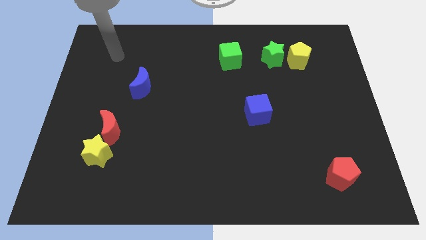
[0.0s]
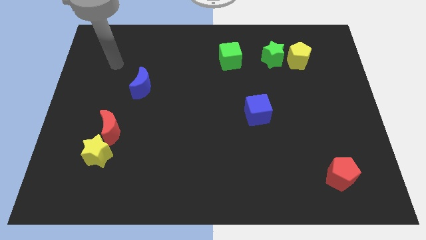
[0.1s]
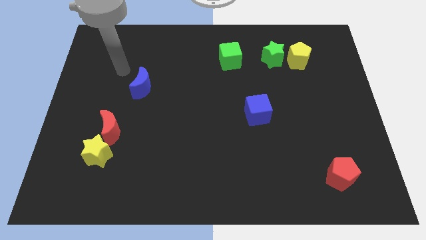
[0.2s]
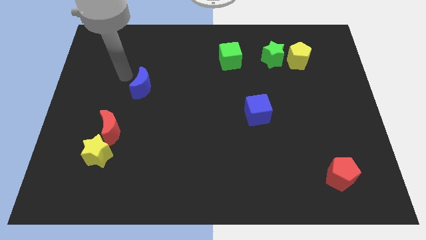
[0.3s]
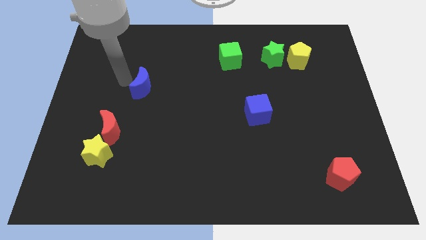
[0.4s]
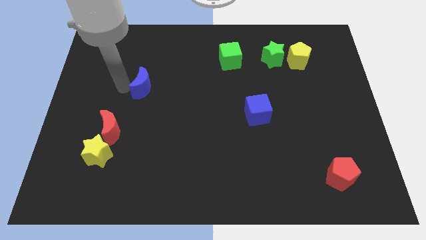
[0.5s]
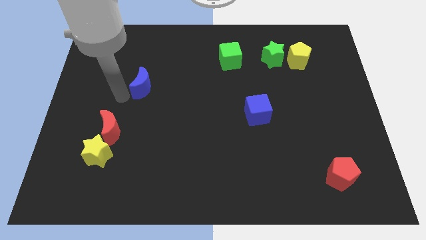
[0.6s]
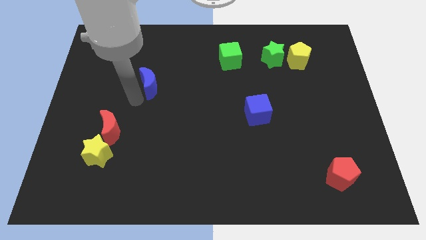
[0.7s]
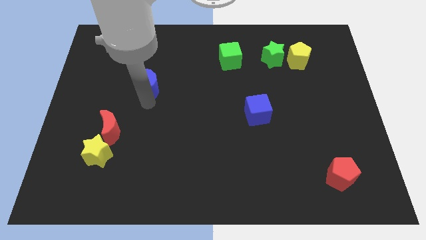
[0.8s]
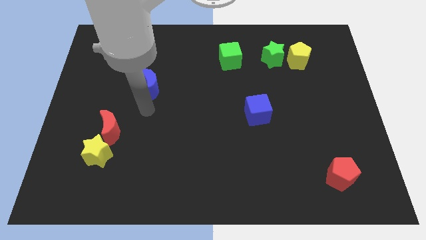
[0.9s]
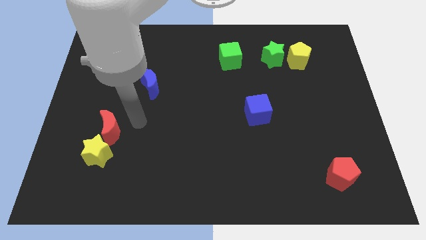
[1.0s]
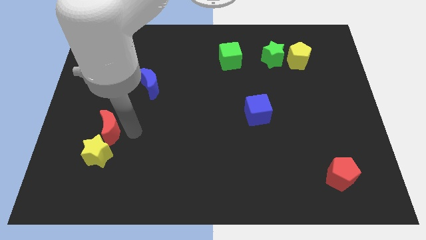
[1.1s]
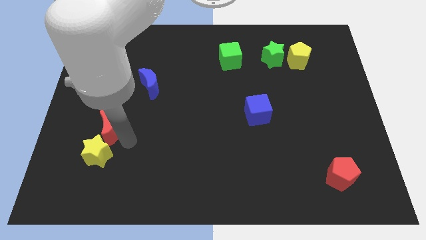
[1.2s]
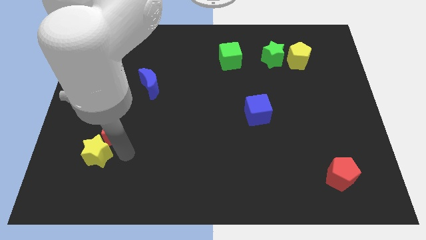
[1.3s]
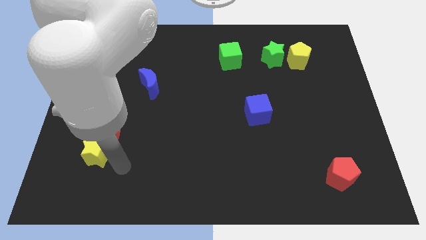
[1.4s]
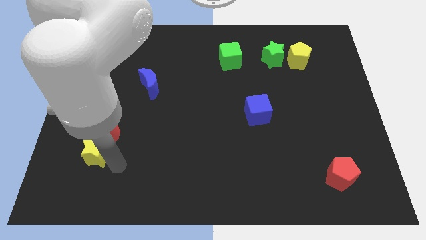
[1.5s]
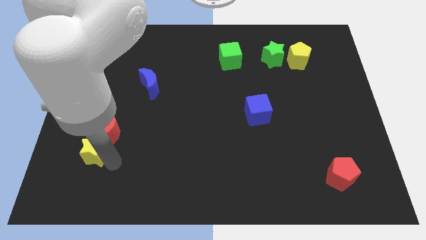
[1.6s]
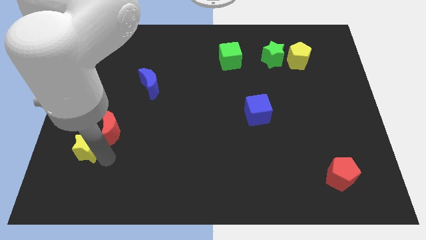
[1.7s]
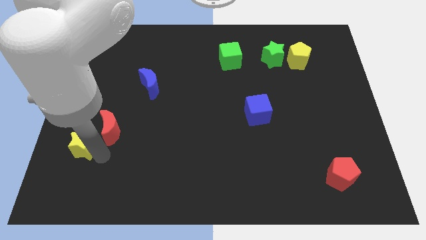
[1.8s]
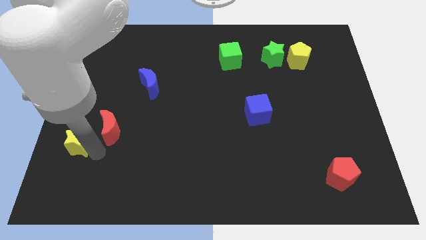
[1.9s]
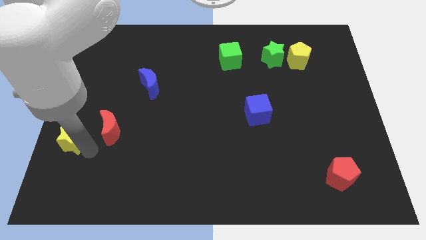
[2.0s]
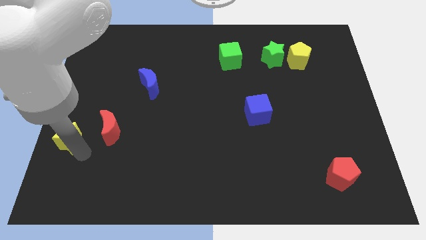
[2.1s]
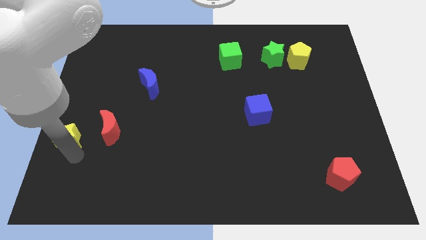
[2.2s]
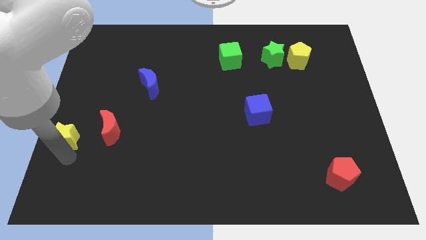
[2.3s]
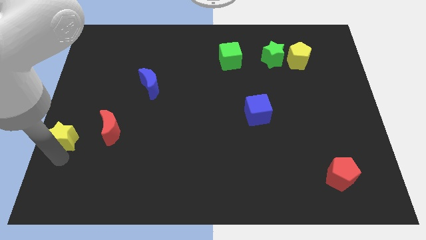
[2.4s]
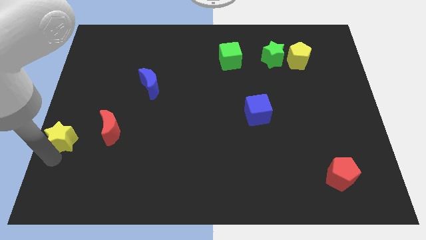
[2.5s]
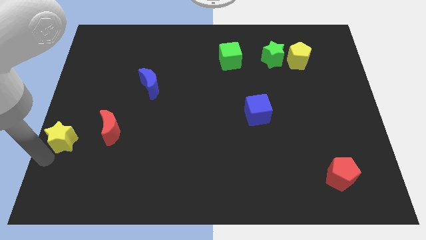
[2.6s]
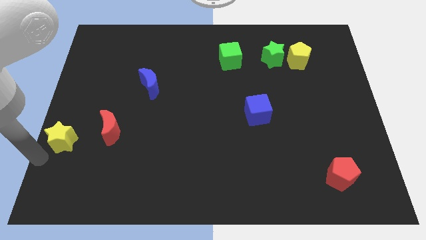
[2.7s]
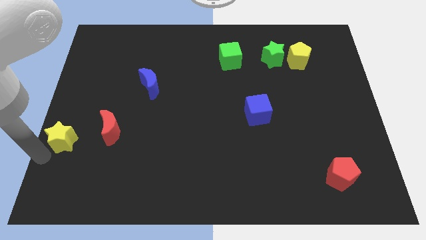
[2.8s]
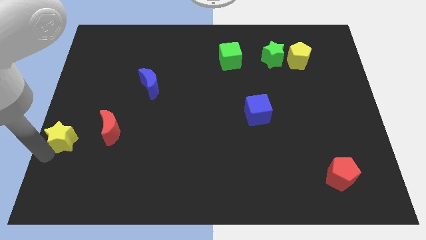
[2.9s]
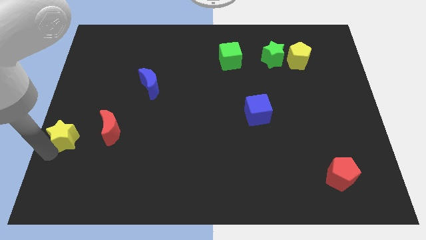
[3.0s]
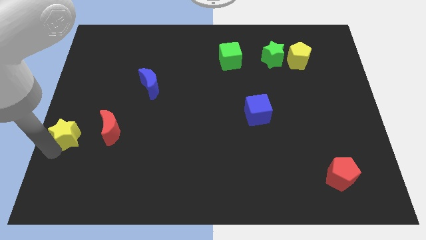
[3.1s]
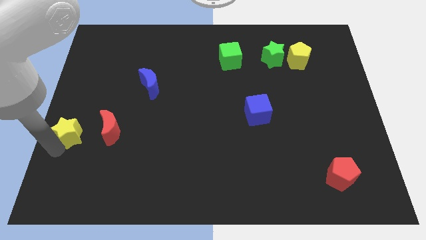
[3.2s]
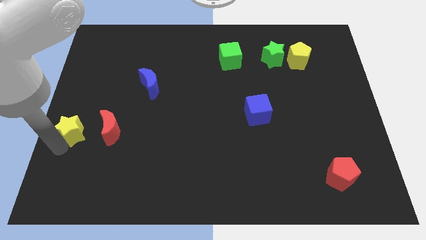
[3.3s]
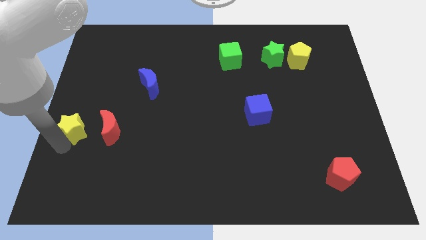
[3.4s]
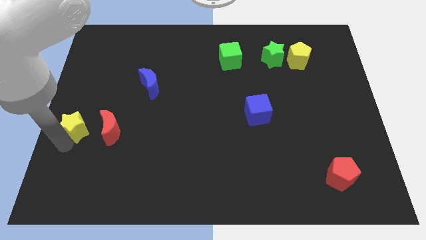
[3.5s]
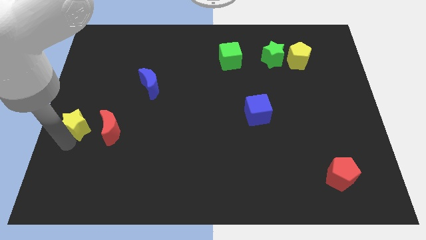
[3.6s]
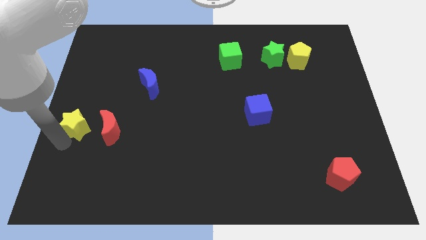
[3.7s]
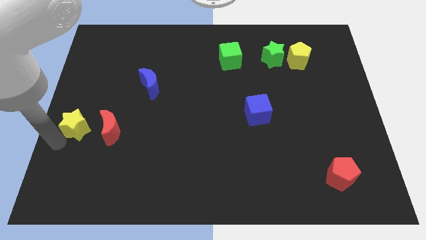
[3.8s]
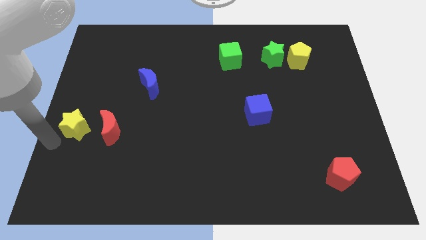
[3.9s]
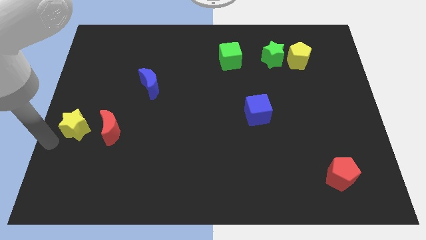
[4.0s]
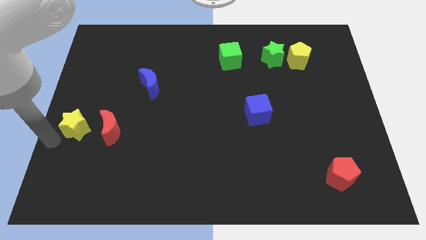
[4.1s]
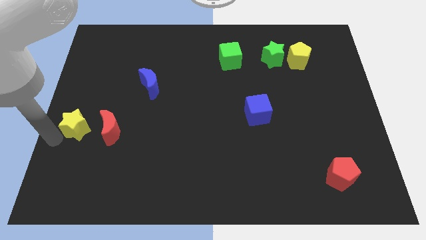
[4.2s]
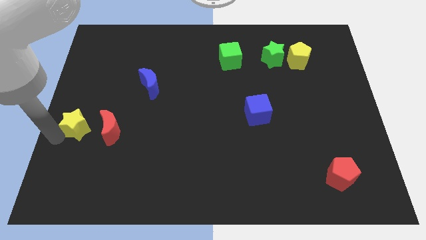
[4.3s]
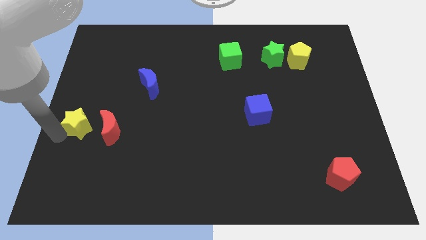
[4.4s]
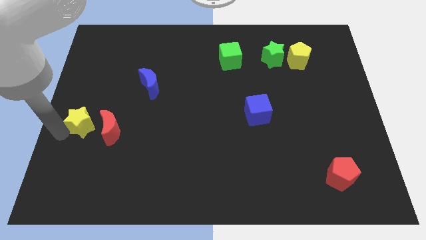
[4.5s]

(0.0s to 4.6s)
slightly push the yellow star up

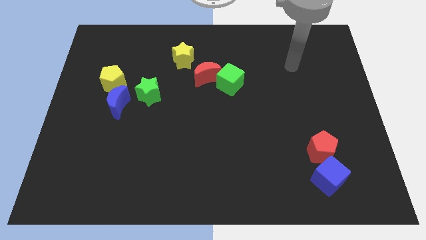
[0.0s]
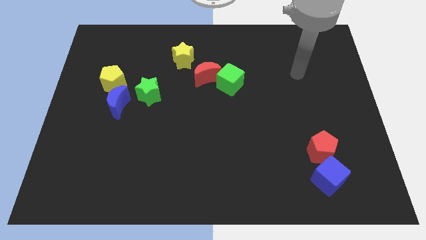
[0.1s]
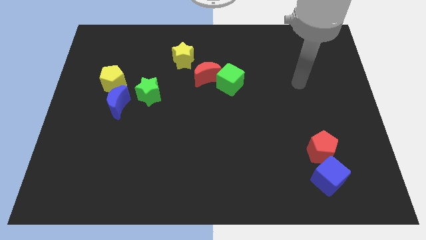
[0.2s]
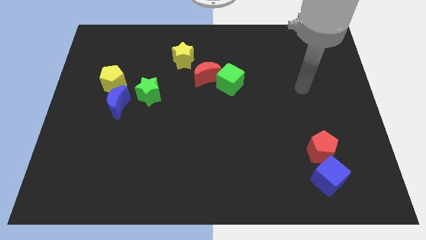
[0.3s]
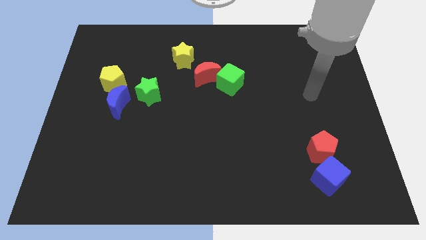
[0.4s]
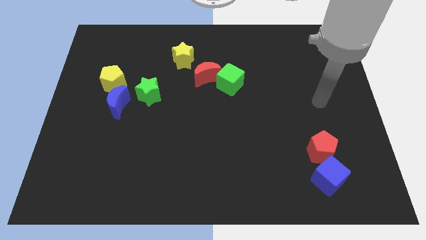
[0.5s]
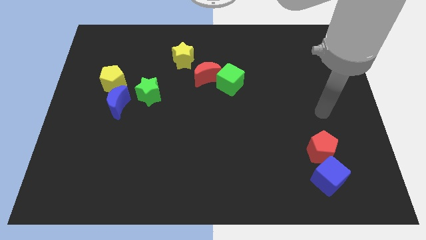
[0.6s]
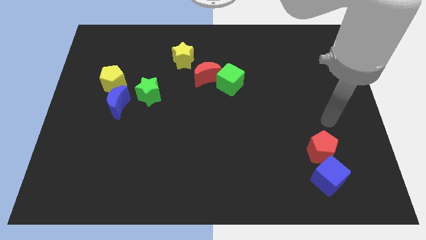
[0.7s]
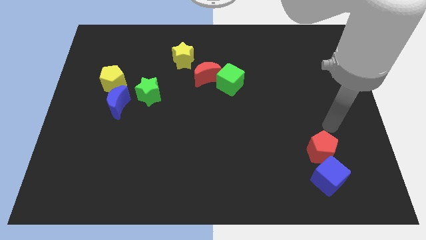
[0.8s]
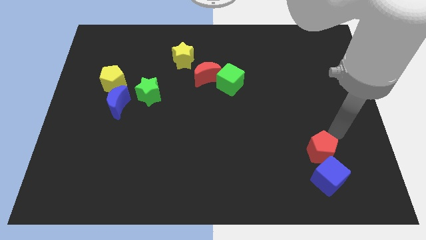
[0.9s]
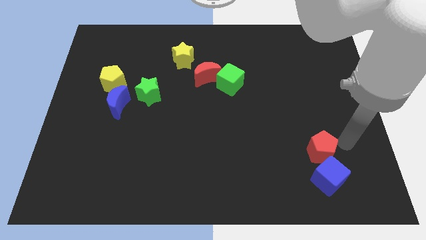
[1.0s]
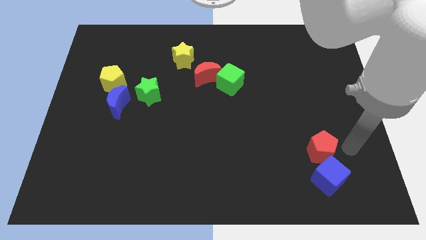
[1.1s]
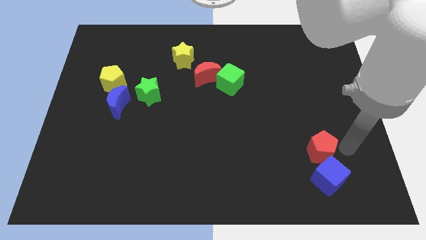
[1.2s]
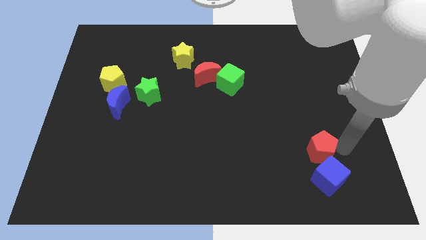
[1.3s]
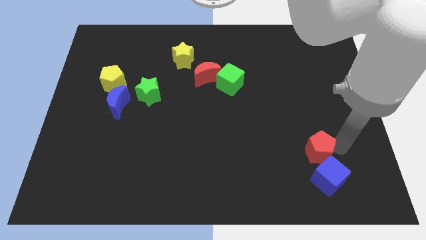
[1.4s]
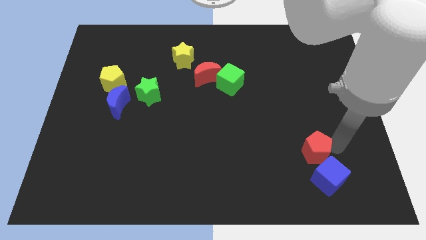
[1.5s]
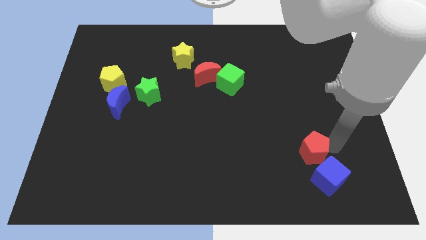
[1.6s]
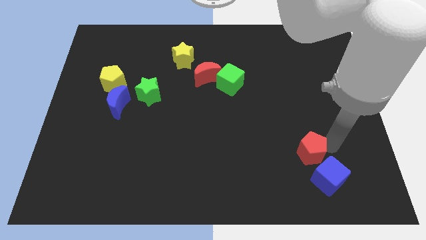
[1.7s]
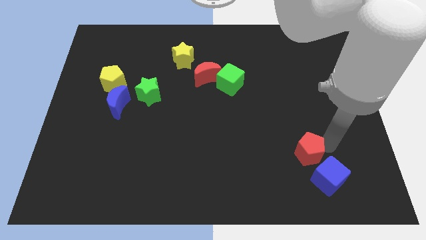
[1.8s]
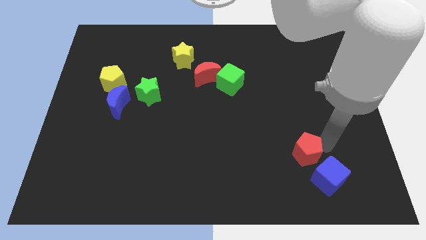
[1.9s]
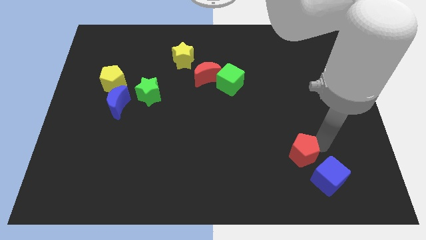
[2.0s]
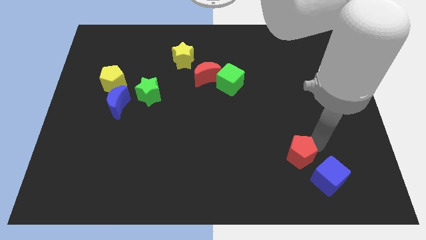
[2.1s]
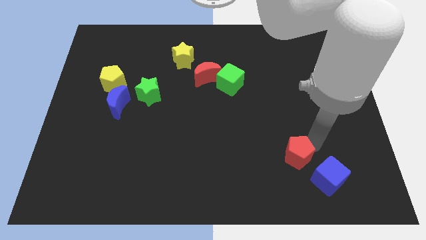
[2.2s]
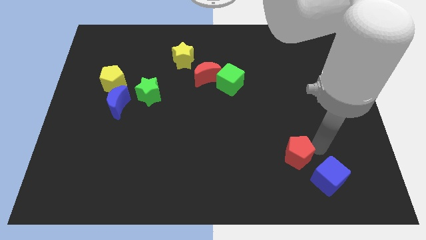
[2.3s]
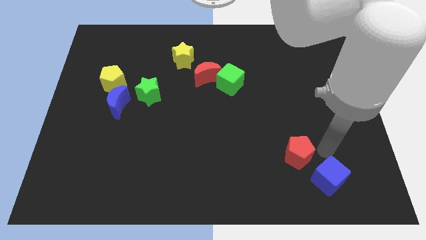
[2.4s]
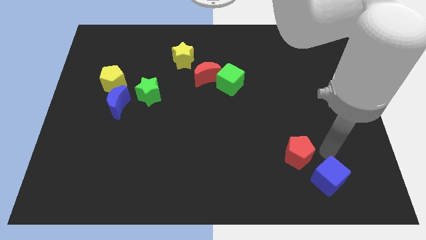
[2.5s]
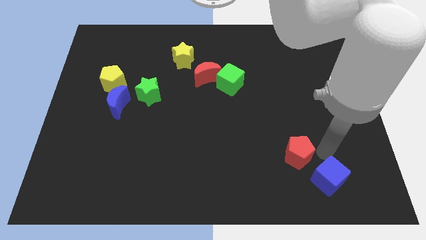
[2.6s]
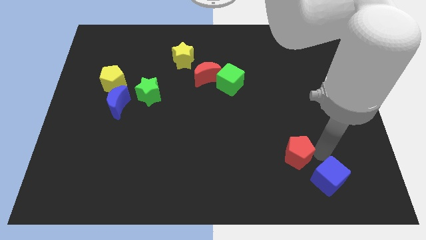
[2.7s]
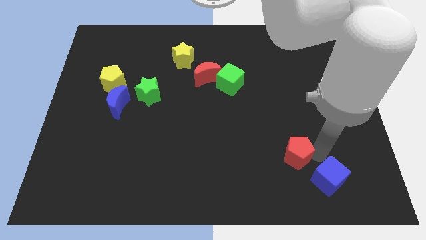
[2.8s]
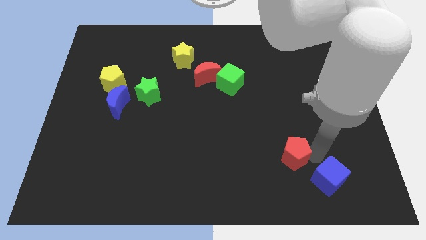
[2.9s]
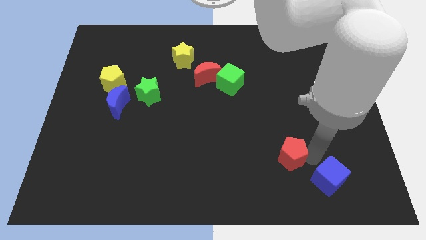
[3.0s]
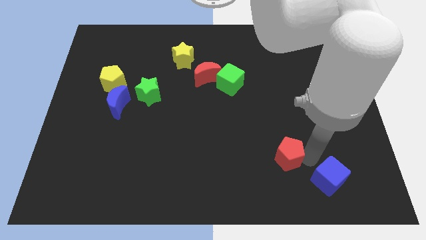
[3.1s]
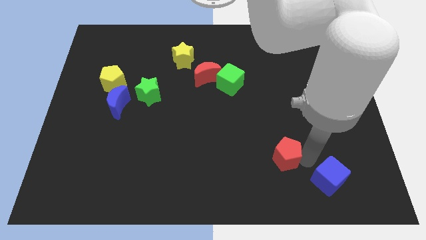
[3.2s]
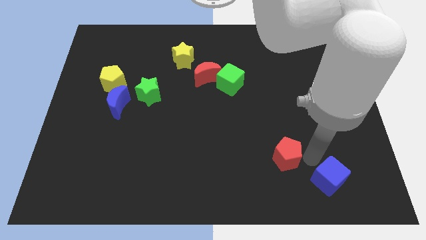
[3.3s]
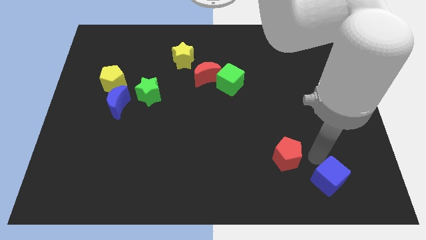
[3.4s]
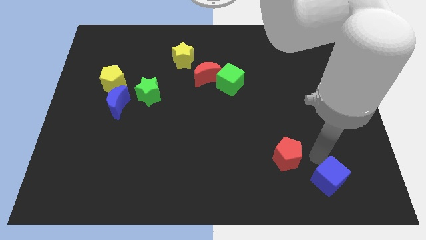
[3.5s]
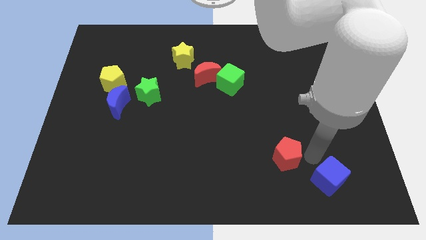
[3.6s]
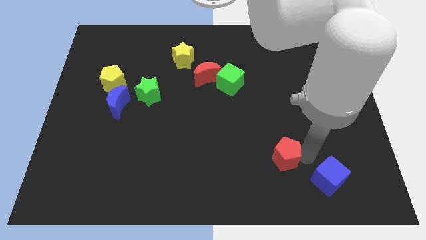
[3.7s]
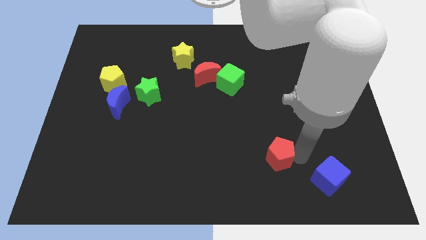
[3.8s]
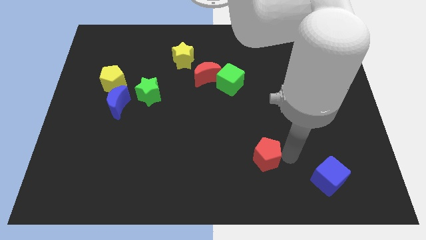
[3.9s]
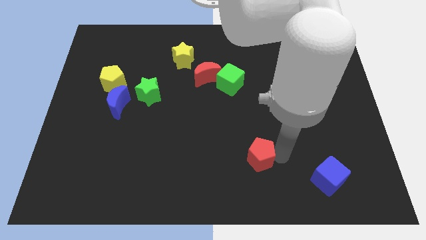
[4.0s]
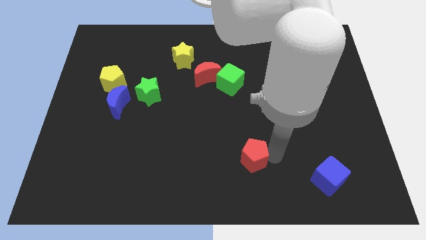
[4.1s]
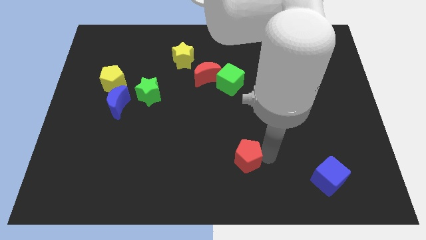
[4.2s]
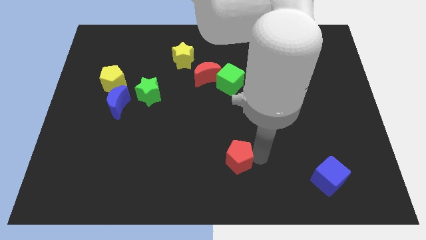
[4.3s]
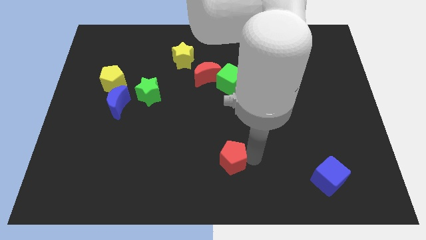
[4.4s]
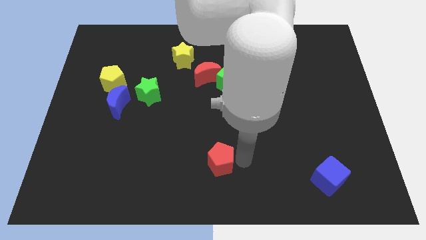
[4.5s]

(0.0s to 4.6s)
slide the red pentagon to the left
